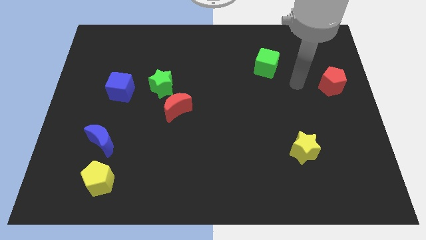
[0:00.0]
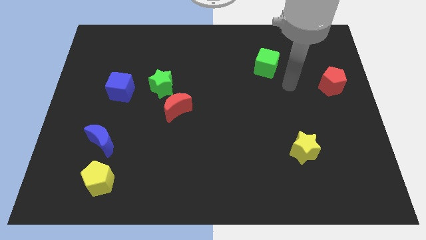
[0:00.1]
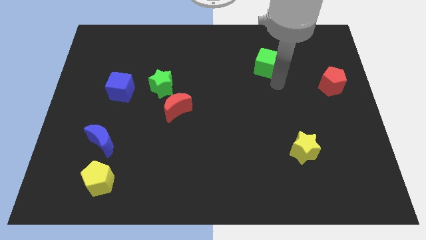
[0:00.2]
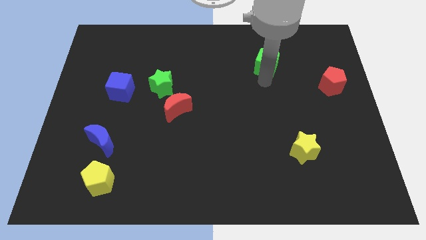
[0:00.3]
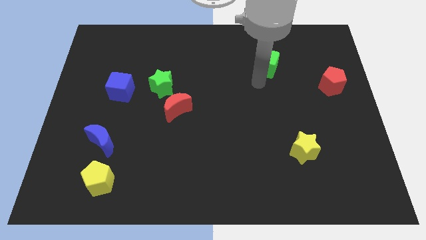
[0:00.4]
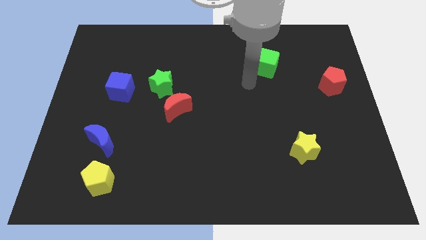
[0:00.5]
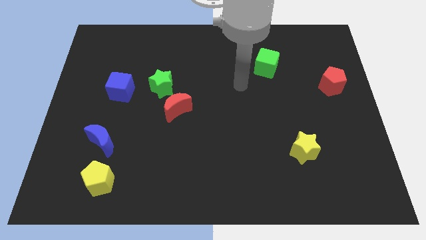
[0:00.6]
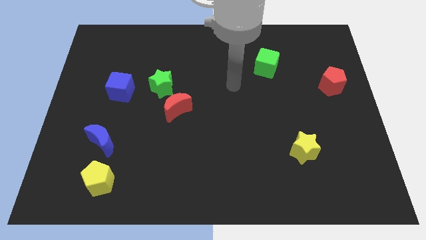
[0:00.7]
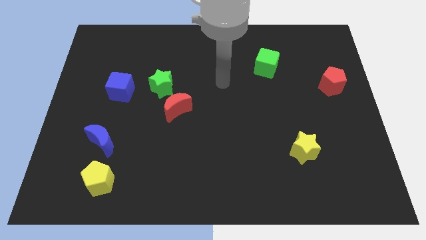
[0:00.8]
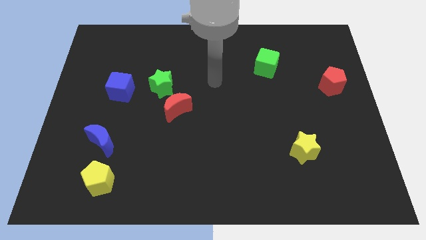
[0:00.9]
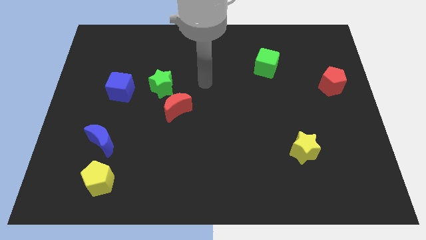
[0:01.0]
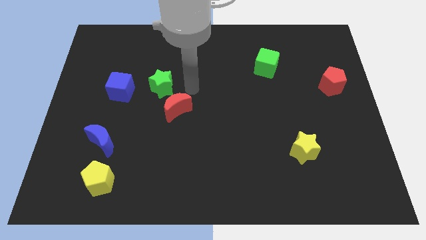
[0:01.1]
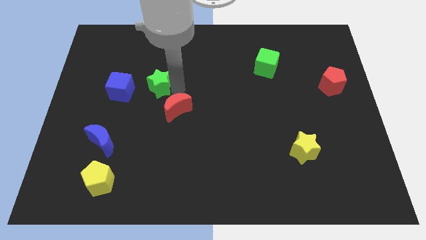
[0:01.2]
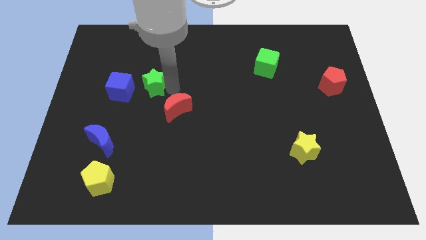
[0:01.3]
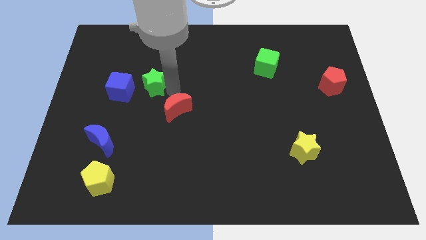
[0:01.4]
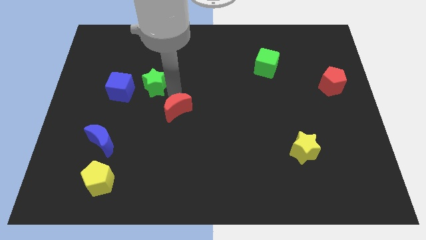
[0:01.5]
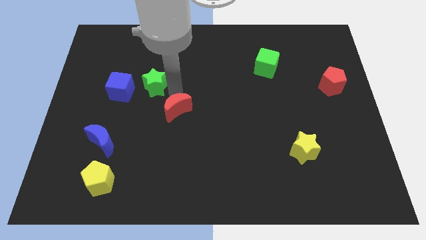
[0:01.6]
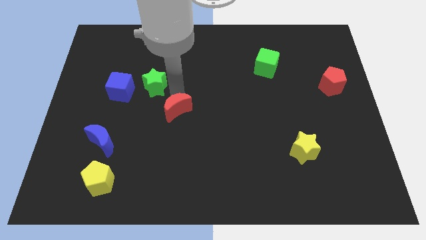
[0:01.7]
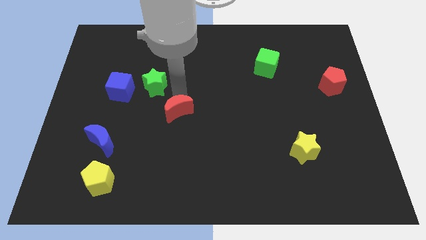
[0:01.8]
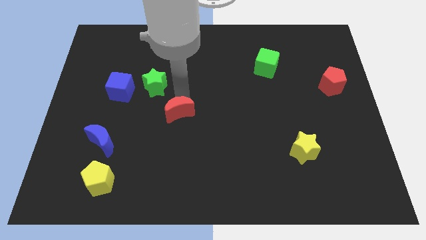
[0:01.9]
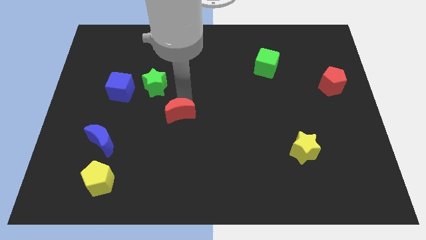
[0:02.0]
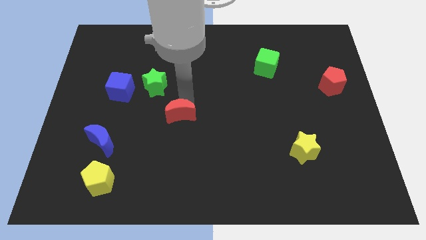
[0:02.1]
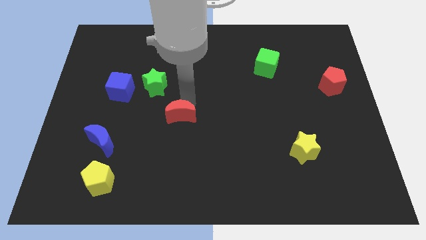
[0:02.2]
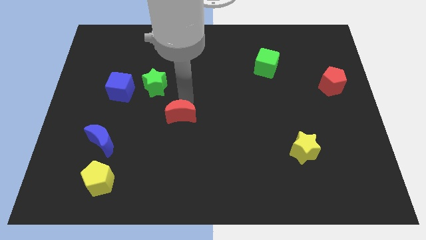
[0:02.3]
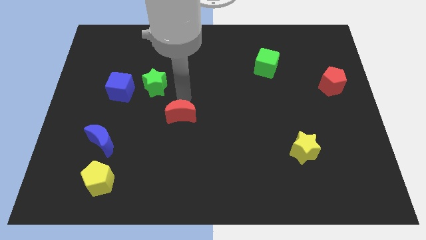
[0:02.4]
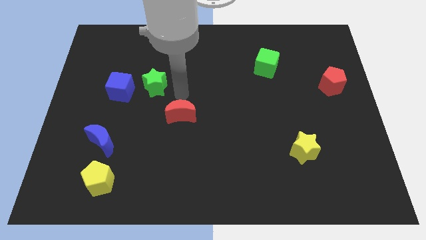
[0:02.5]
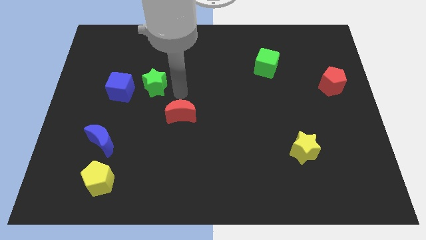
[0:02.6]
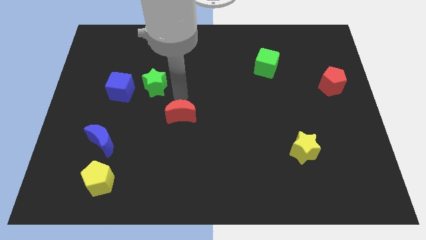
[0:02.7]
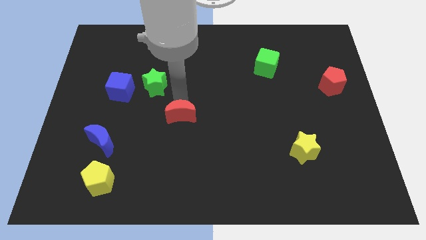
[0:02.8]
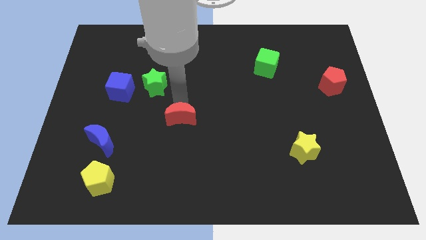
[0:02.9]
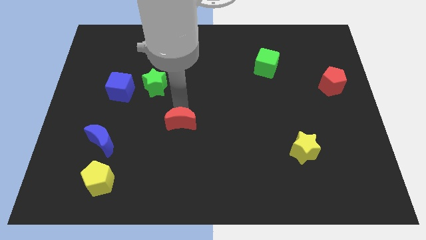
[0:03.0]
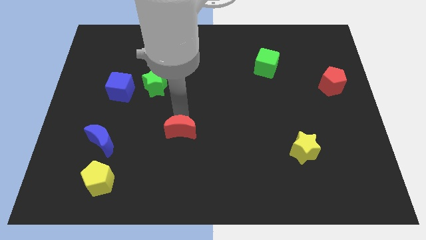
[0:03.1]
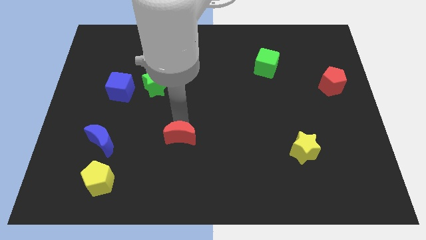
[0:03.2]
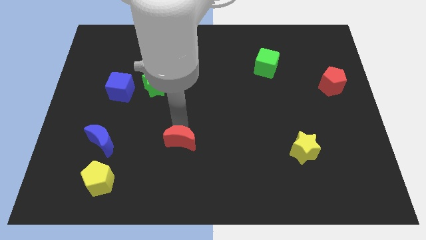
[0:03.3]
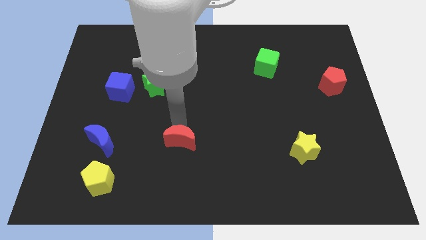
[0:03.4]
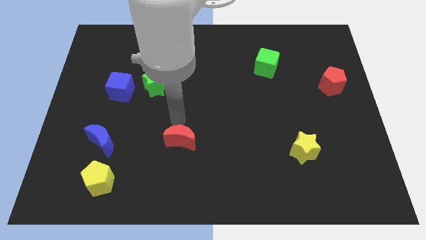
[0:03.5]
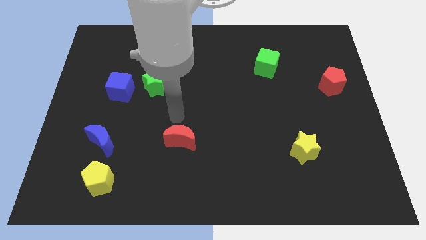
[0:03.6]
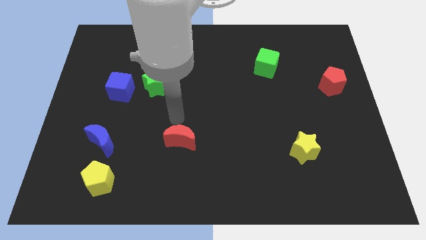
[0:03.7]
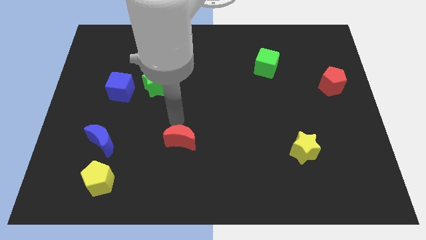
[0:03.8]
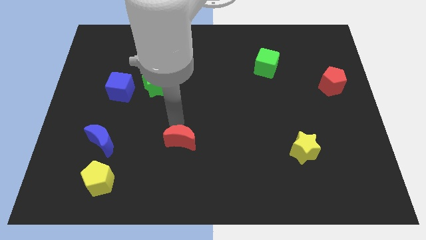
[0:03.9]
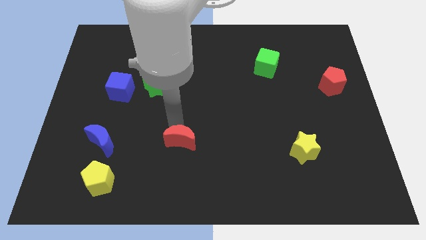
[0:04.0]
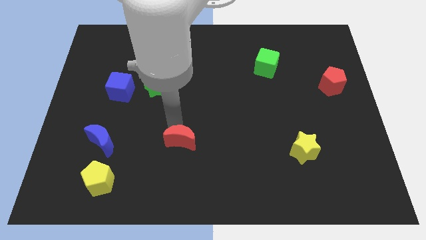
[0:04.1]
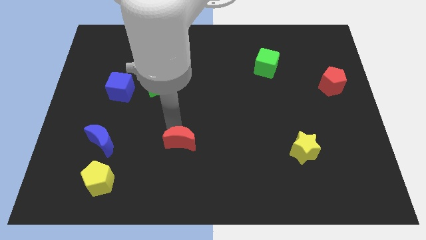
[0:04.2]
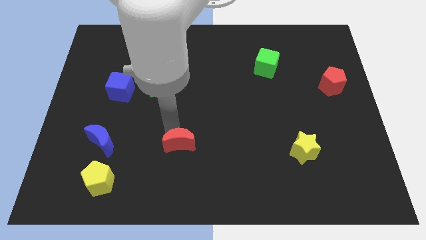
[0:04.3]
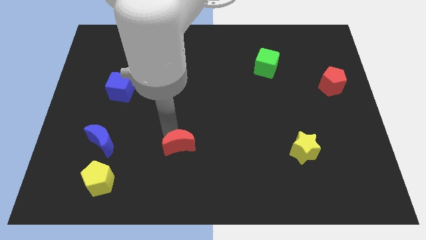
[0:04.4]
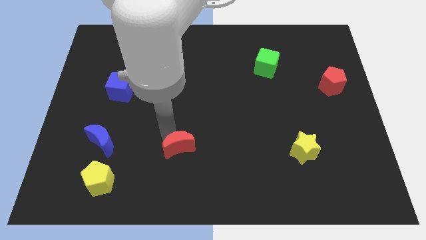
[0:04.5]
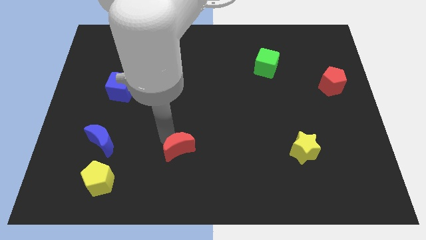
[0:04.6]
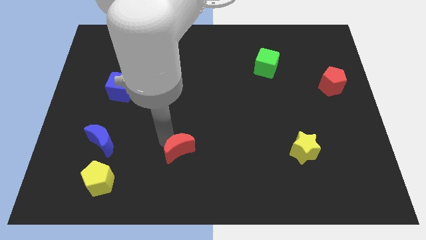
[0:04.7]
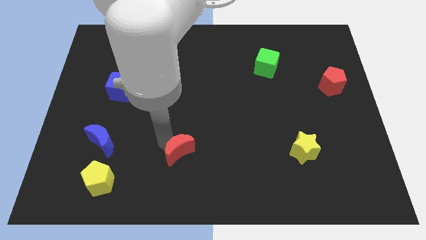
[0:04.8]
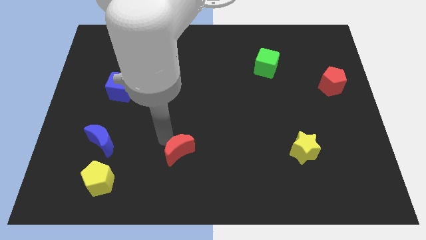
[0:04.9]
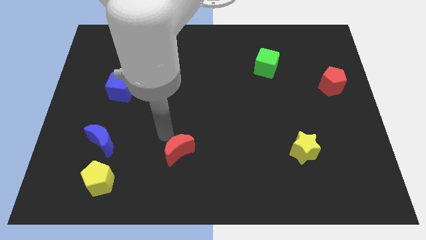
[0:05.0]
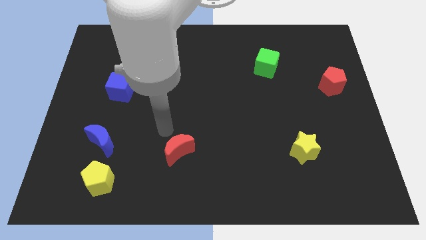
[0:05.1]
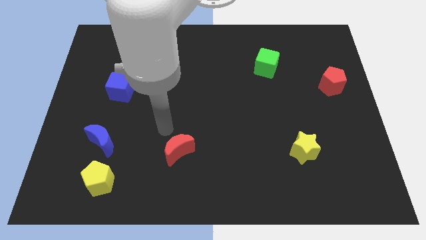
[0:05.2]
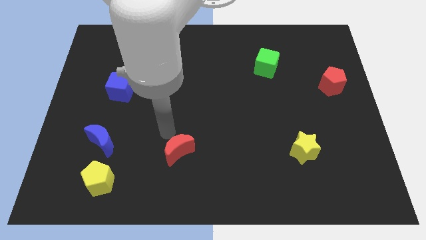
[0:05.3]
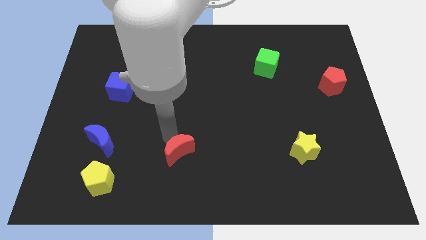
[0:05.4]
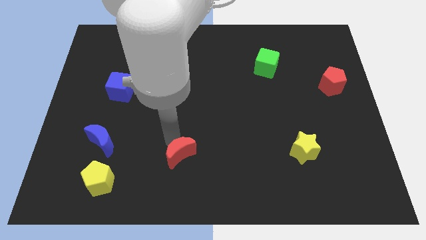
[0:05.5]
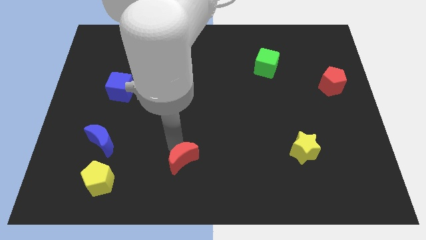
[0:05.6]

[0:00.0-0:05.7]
push the red moon to the bottom

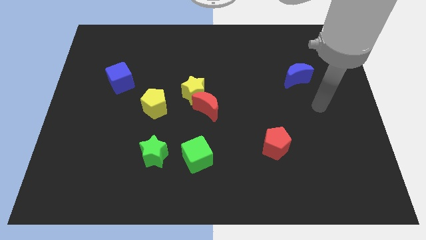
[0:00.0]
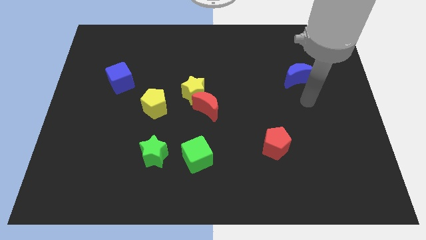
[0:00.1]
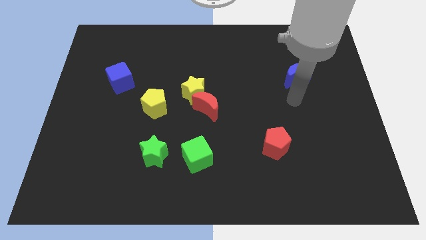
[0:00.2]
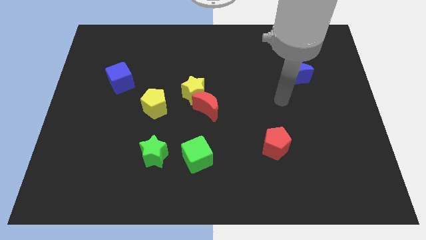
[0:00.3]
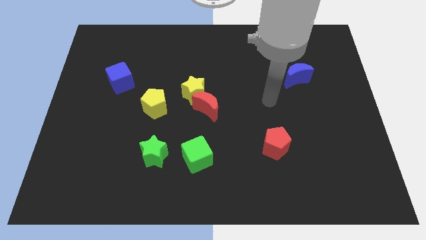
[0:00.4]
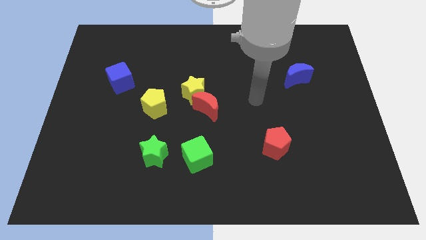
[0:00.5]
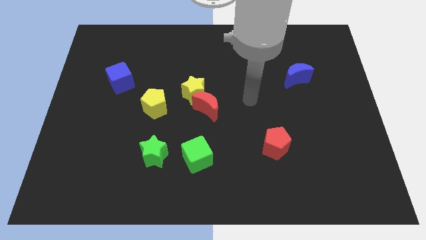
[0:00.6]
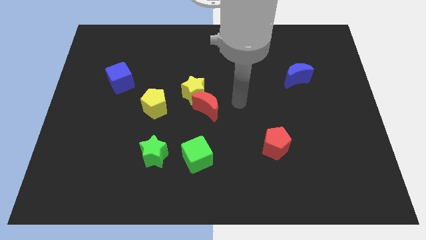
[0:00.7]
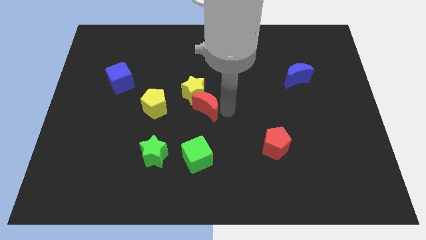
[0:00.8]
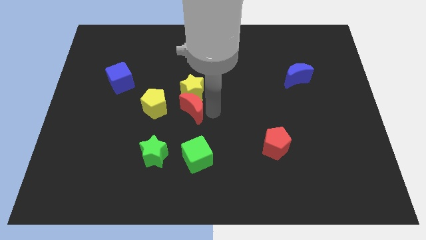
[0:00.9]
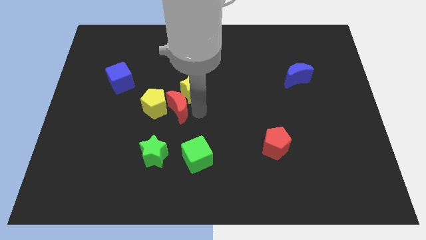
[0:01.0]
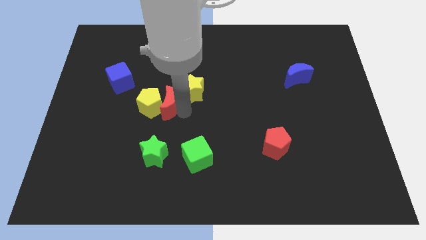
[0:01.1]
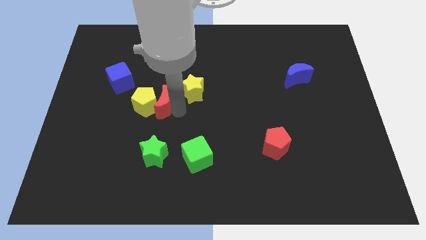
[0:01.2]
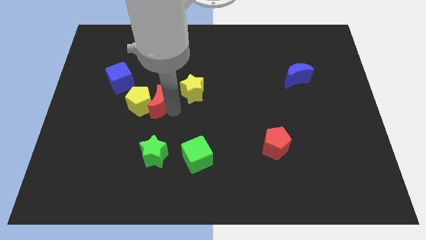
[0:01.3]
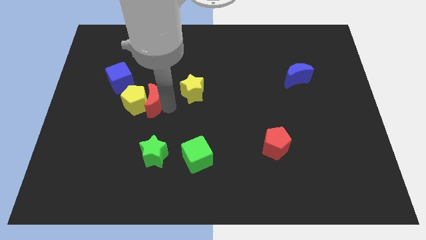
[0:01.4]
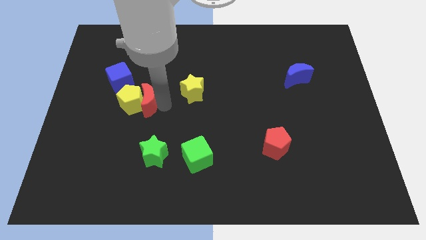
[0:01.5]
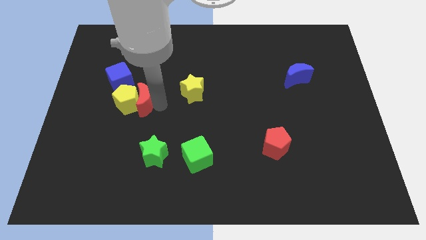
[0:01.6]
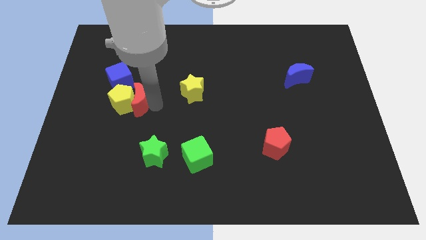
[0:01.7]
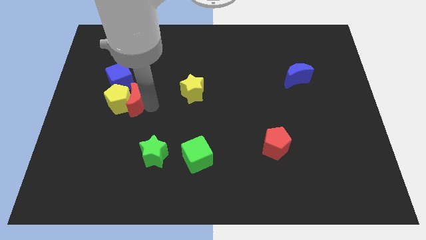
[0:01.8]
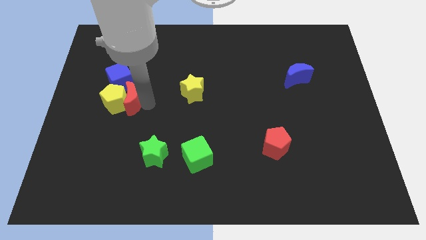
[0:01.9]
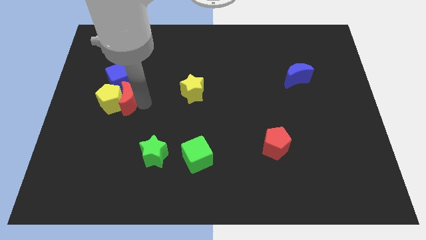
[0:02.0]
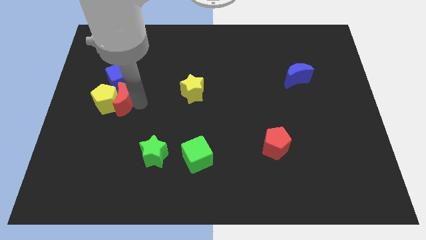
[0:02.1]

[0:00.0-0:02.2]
put the yellow pentagon to the center left
